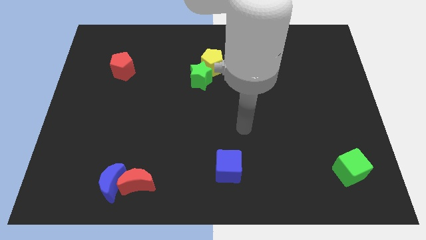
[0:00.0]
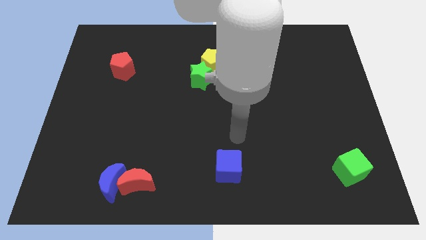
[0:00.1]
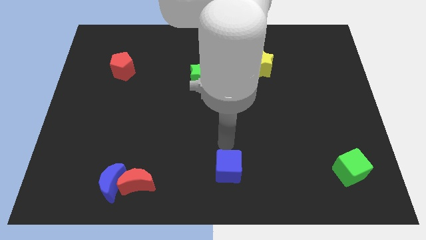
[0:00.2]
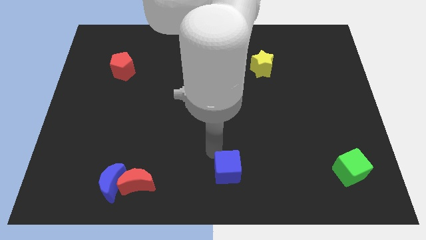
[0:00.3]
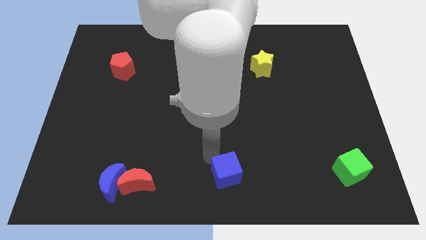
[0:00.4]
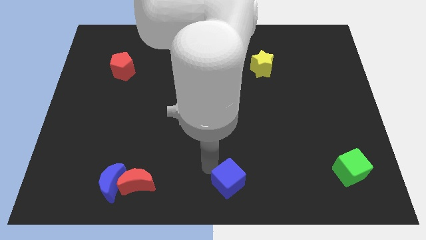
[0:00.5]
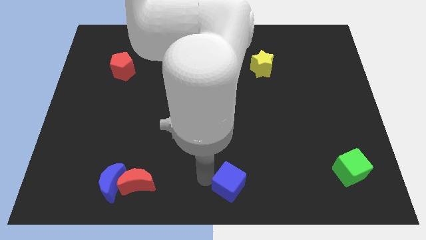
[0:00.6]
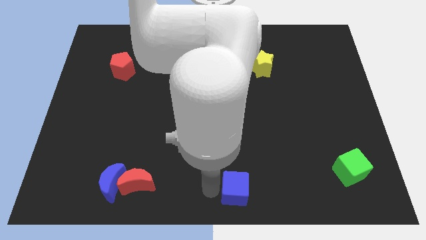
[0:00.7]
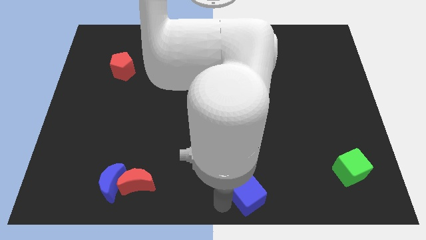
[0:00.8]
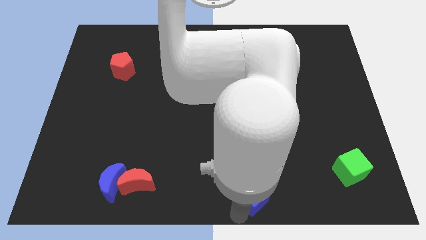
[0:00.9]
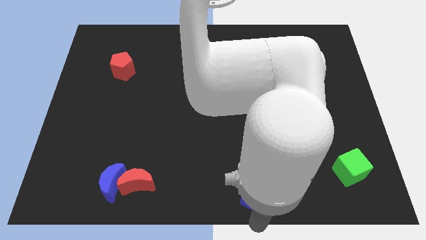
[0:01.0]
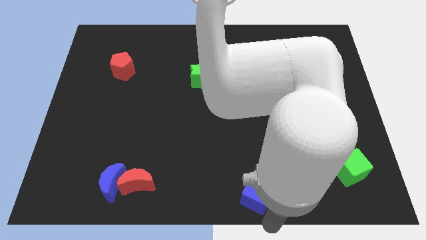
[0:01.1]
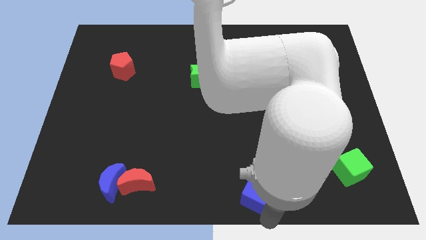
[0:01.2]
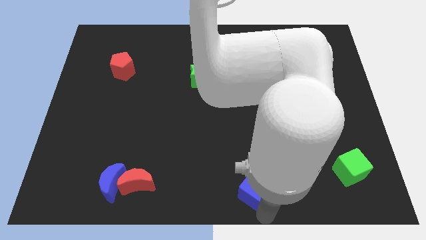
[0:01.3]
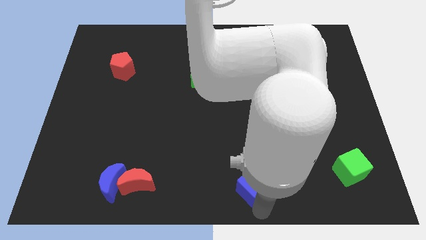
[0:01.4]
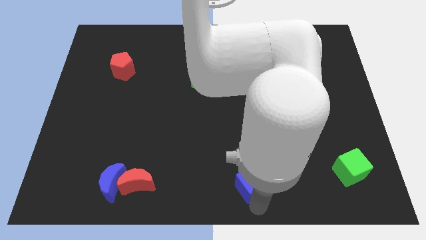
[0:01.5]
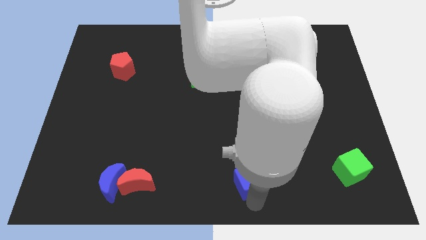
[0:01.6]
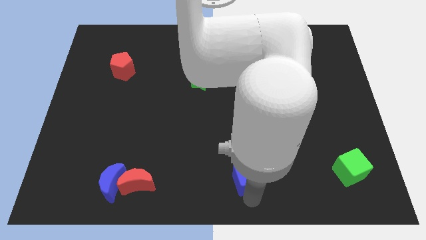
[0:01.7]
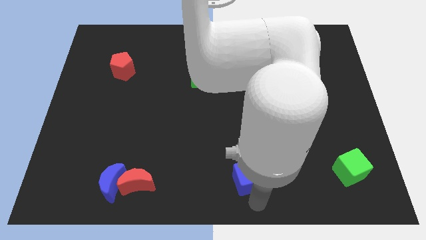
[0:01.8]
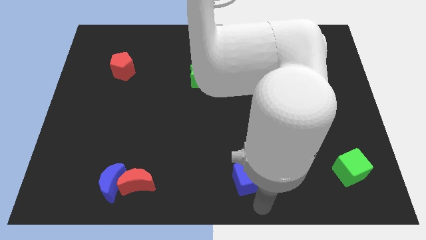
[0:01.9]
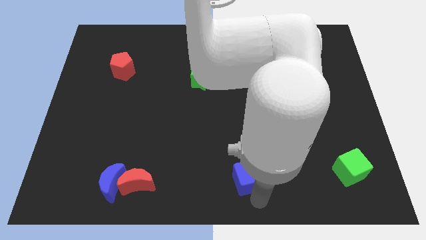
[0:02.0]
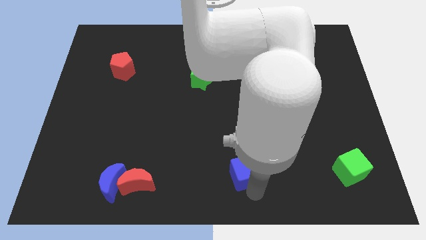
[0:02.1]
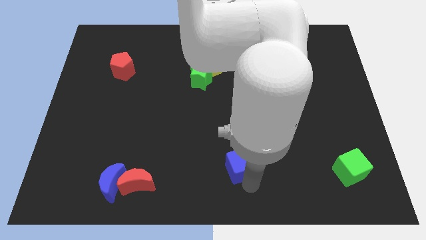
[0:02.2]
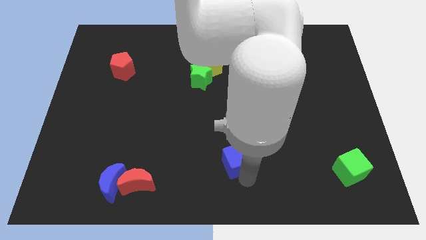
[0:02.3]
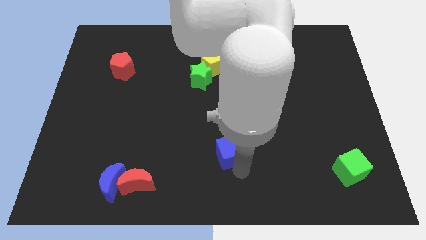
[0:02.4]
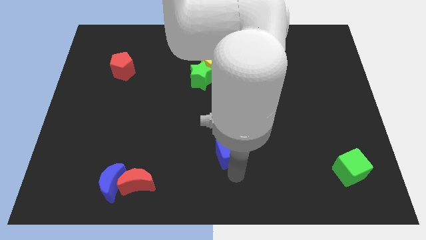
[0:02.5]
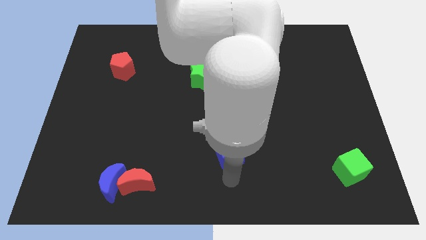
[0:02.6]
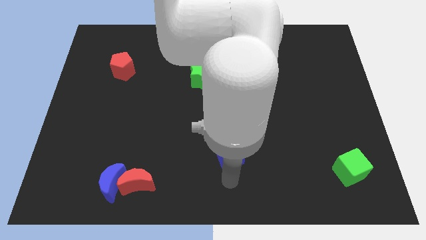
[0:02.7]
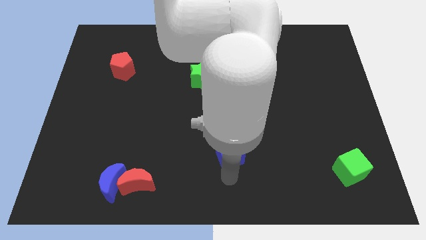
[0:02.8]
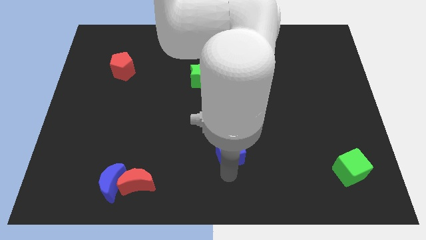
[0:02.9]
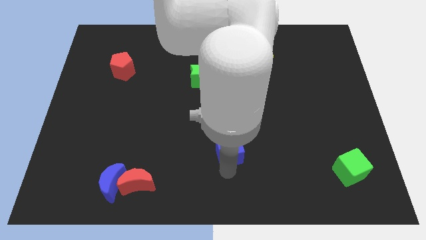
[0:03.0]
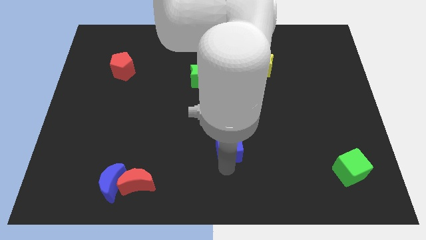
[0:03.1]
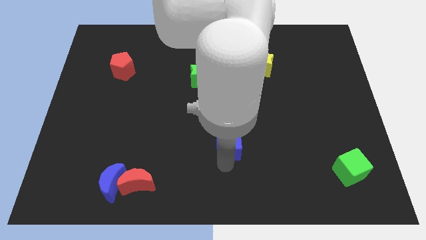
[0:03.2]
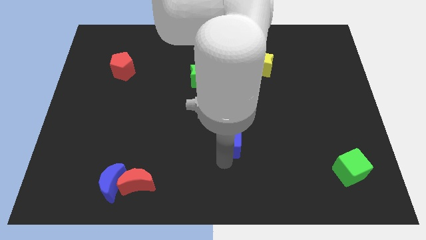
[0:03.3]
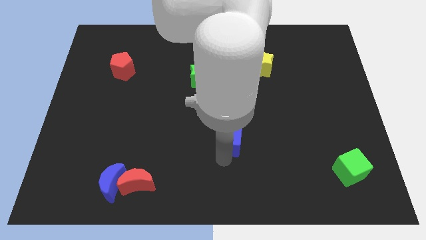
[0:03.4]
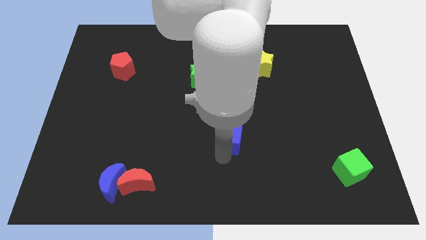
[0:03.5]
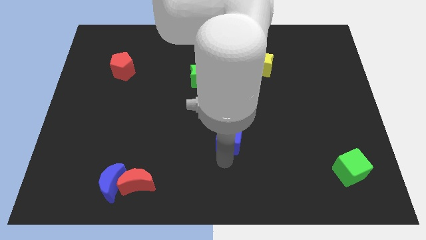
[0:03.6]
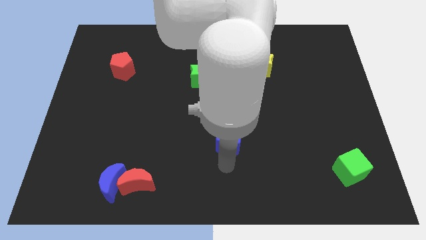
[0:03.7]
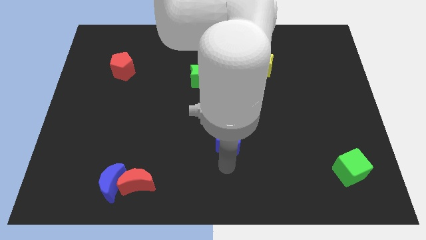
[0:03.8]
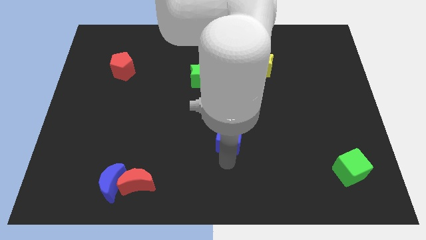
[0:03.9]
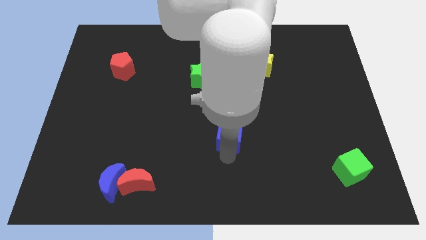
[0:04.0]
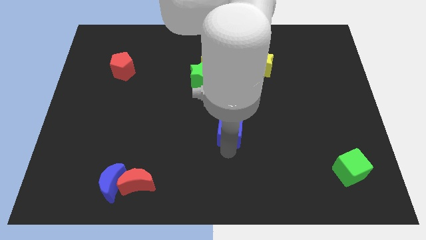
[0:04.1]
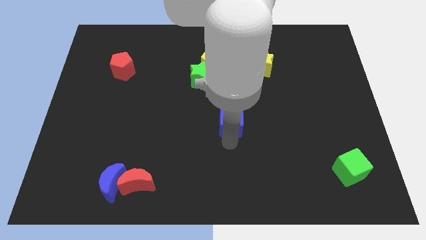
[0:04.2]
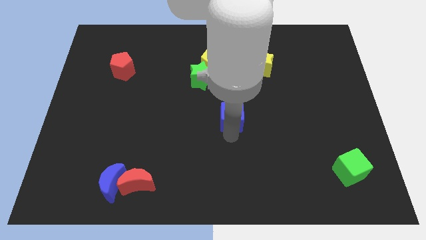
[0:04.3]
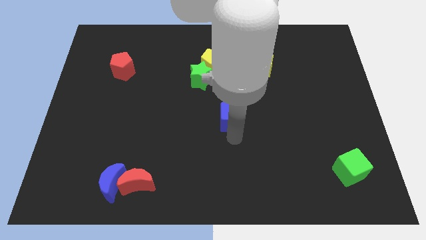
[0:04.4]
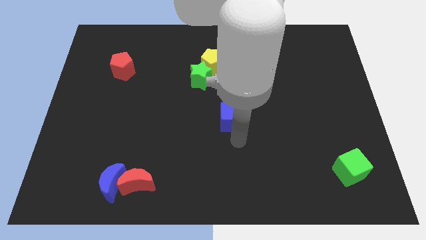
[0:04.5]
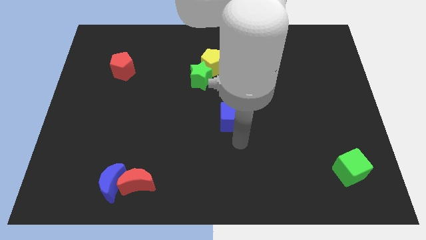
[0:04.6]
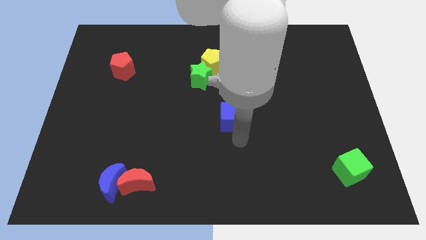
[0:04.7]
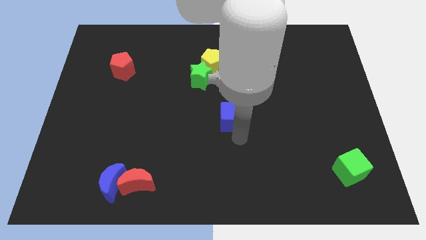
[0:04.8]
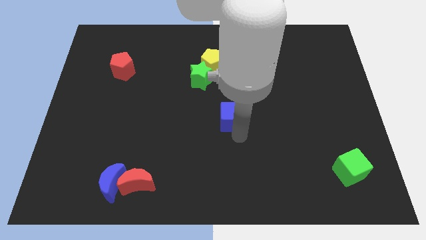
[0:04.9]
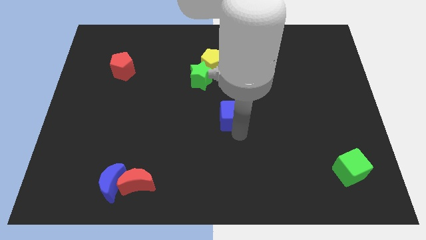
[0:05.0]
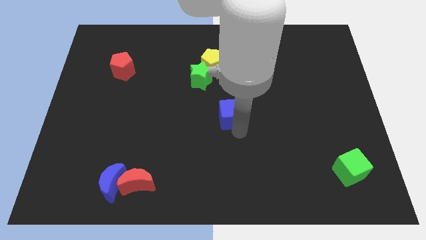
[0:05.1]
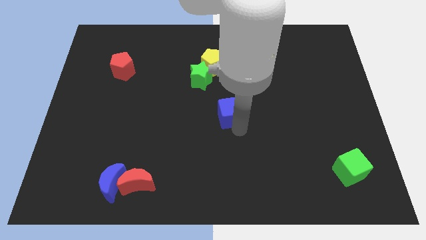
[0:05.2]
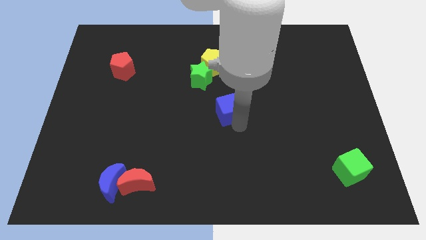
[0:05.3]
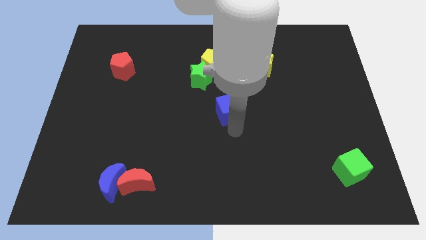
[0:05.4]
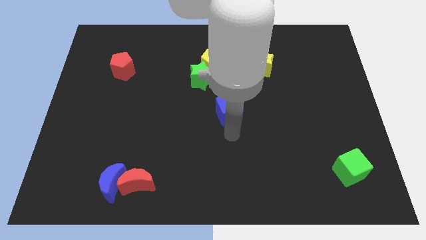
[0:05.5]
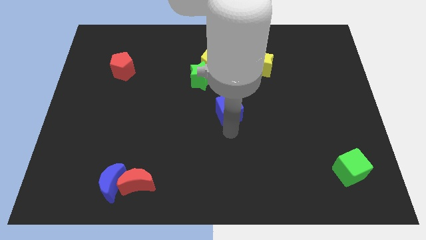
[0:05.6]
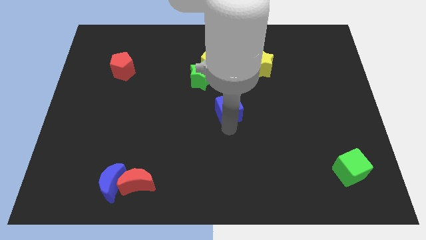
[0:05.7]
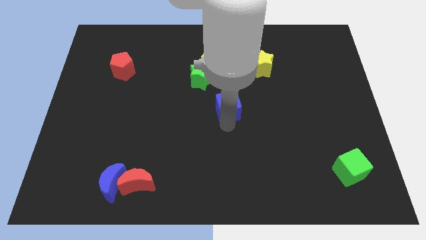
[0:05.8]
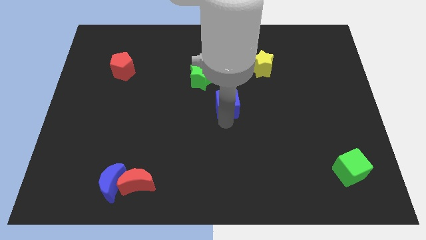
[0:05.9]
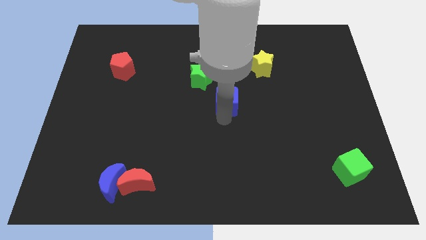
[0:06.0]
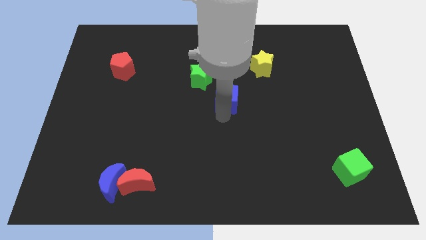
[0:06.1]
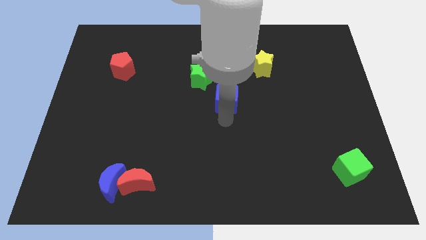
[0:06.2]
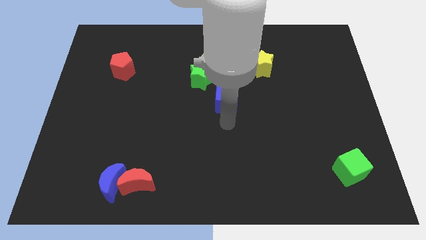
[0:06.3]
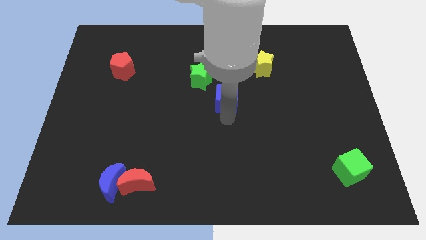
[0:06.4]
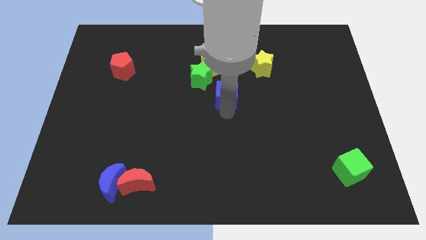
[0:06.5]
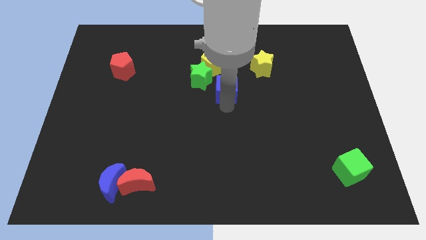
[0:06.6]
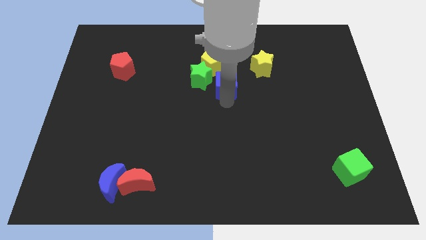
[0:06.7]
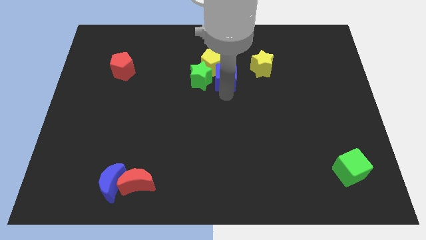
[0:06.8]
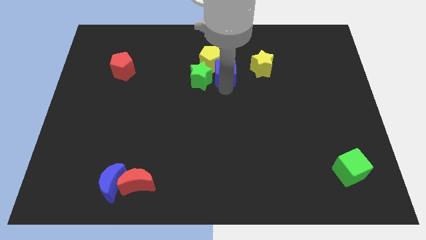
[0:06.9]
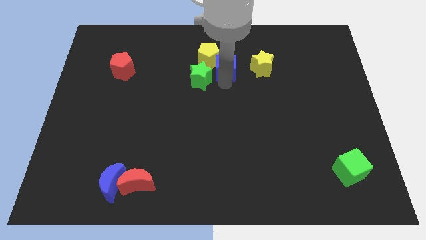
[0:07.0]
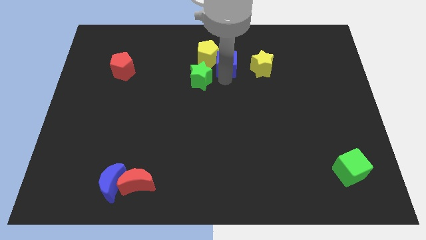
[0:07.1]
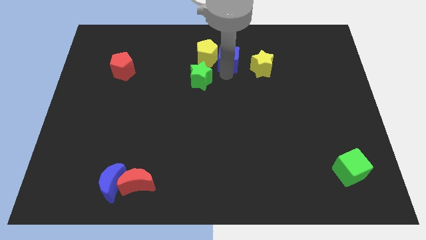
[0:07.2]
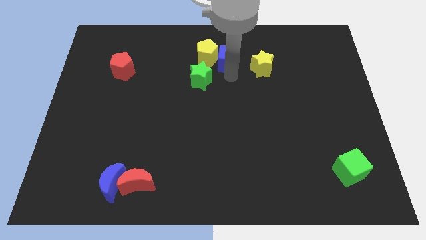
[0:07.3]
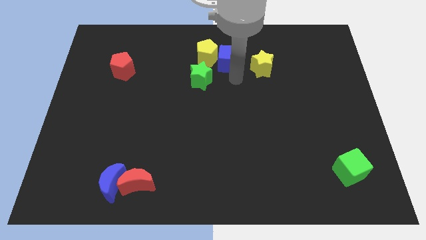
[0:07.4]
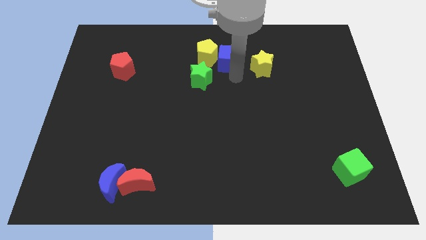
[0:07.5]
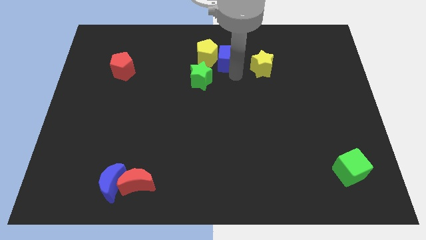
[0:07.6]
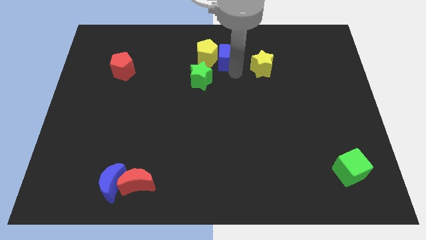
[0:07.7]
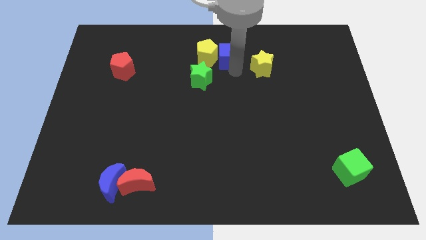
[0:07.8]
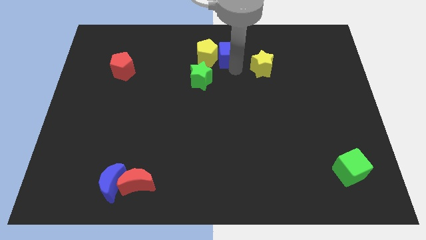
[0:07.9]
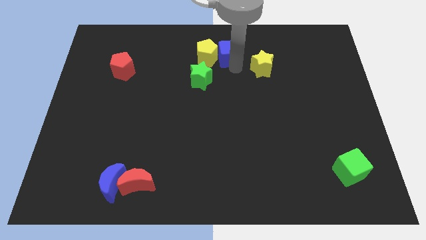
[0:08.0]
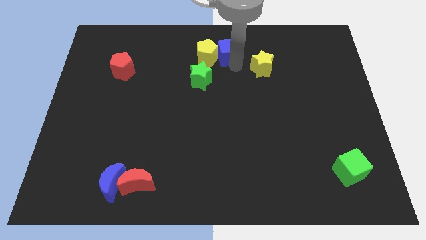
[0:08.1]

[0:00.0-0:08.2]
slide the blue cube to the top side
